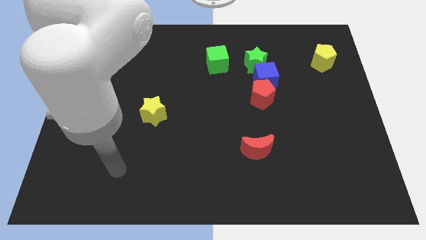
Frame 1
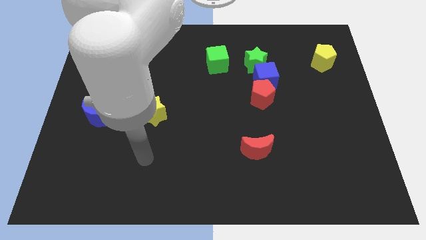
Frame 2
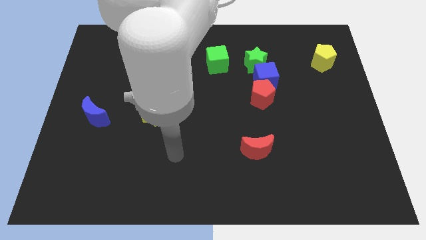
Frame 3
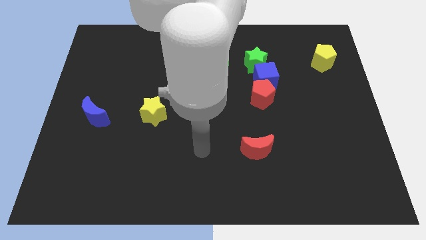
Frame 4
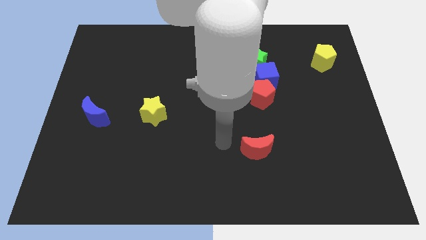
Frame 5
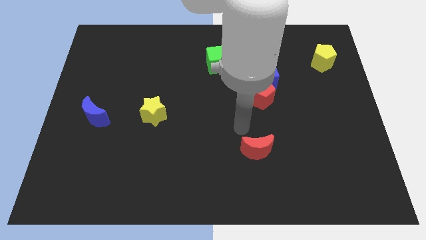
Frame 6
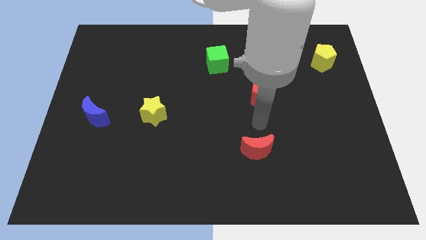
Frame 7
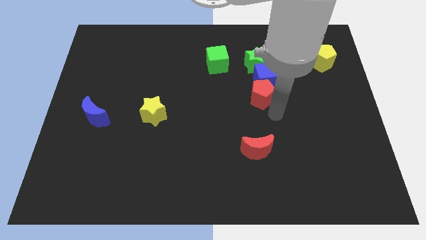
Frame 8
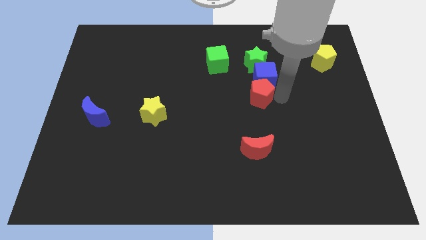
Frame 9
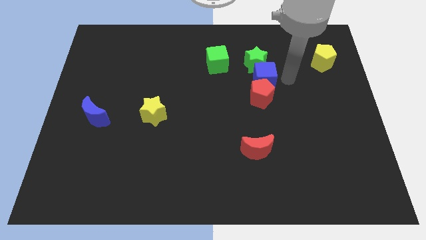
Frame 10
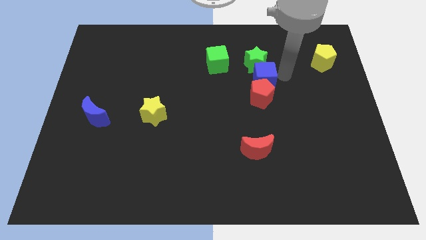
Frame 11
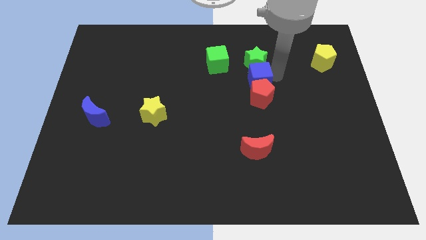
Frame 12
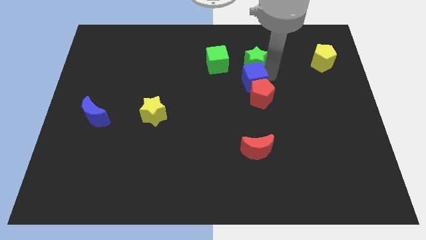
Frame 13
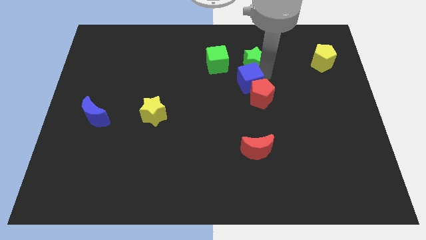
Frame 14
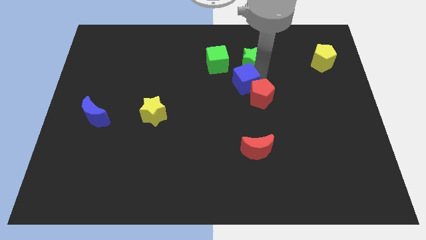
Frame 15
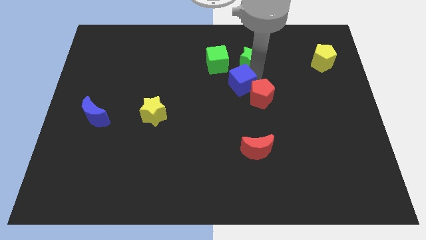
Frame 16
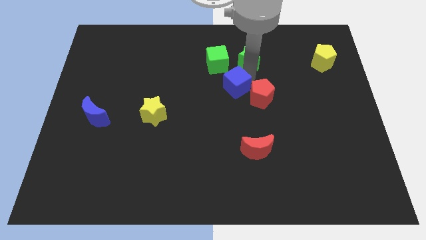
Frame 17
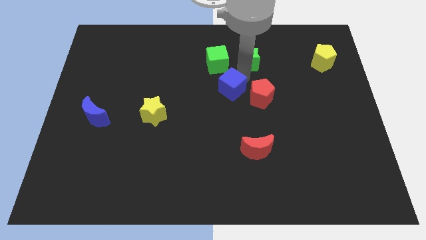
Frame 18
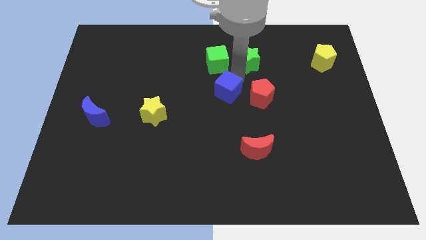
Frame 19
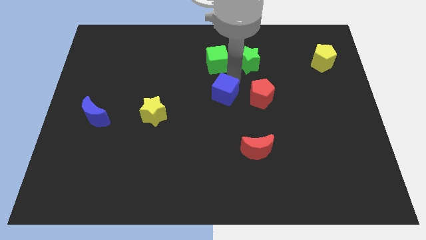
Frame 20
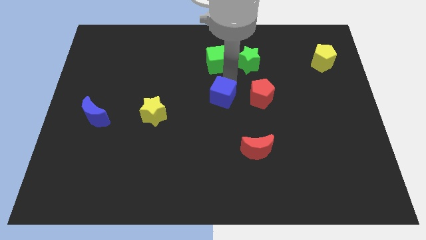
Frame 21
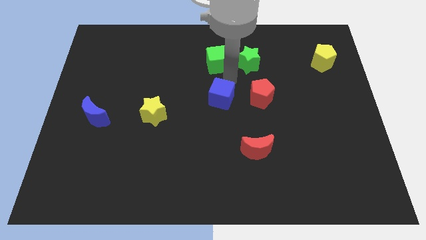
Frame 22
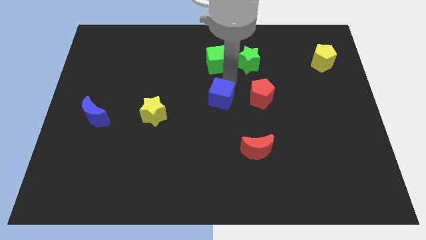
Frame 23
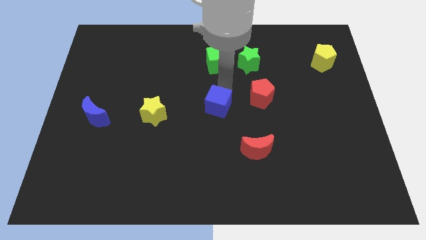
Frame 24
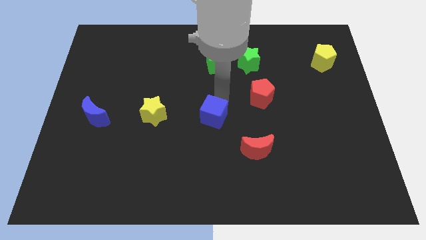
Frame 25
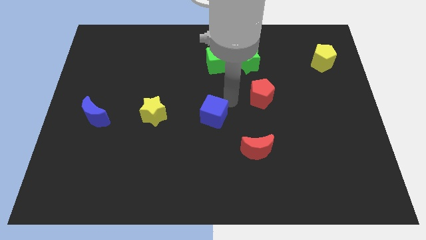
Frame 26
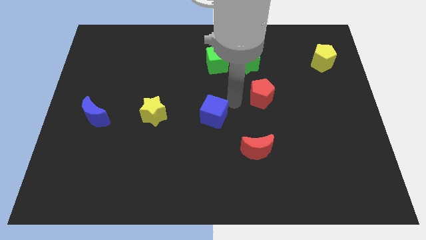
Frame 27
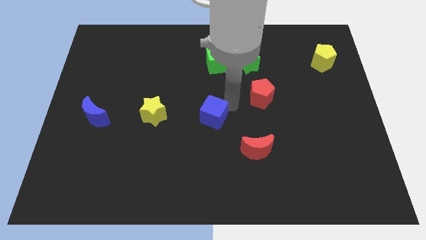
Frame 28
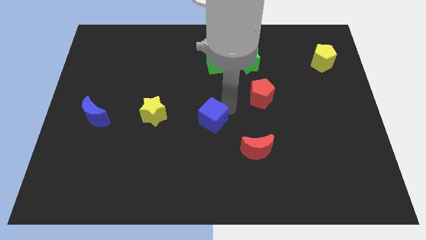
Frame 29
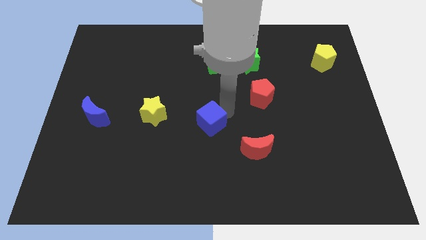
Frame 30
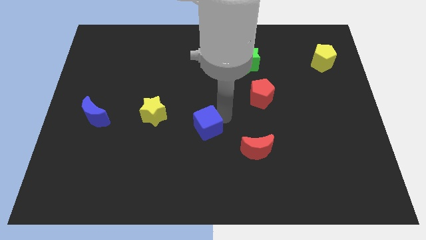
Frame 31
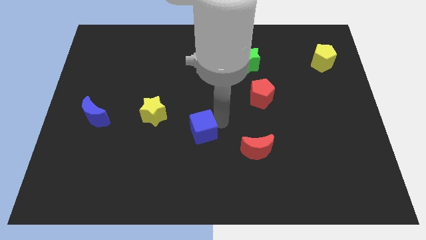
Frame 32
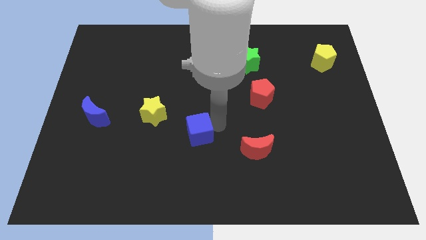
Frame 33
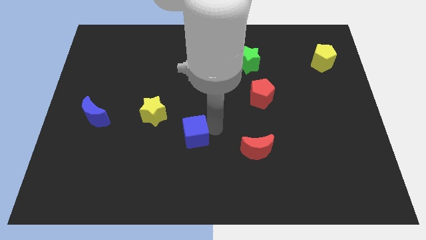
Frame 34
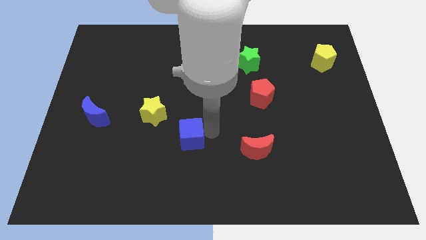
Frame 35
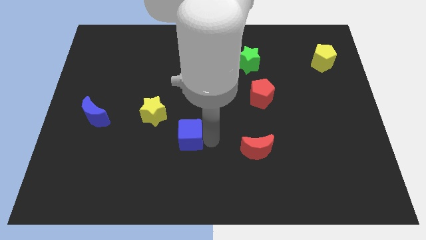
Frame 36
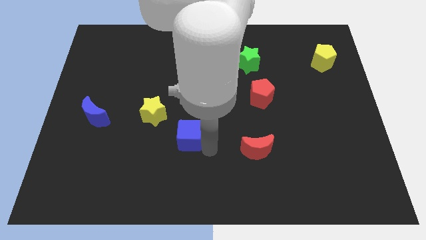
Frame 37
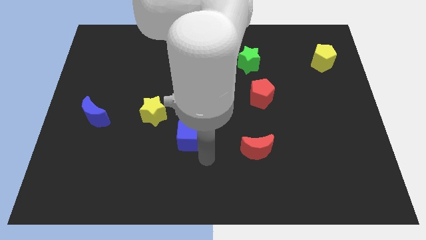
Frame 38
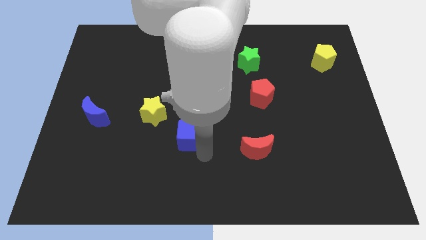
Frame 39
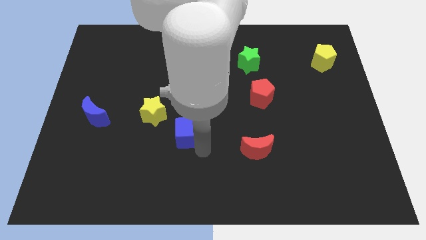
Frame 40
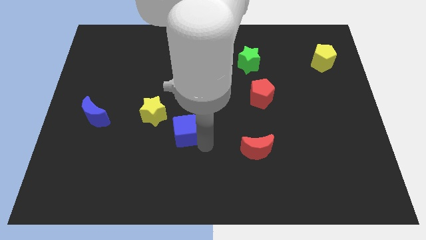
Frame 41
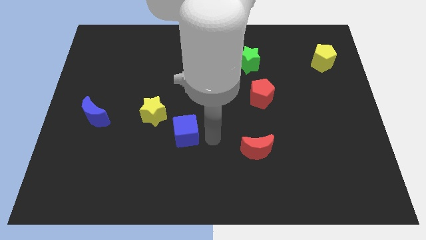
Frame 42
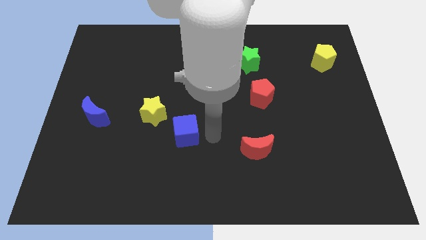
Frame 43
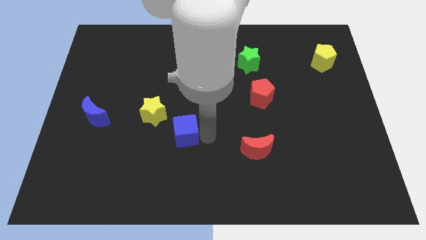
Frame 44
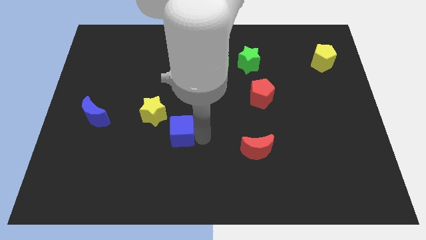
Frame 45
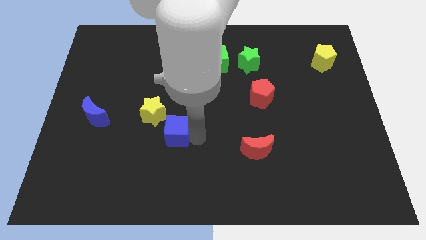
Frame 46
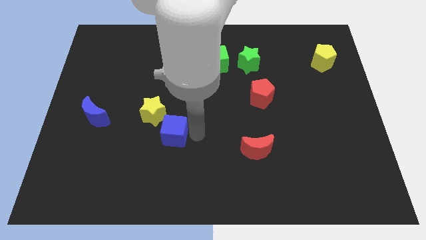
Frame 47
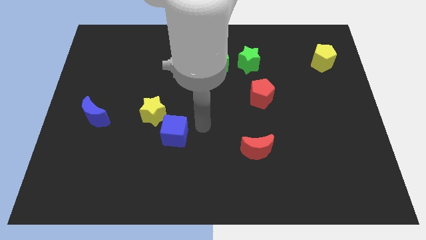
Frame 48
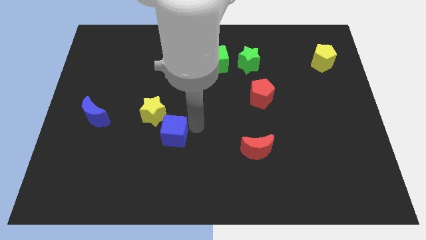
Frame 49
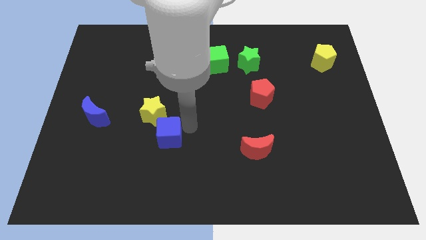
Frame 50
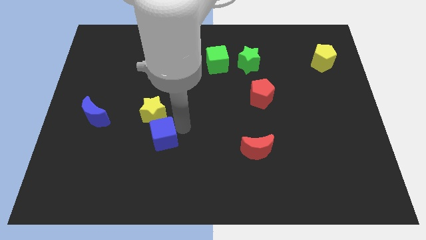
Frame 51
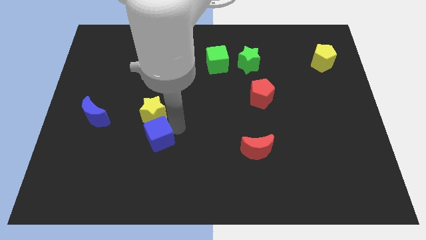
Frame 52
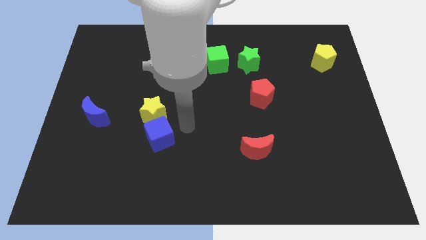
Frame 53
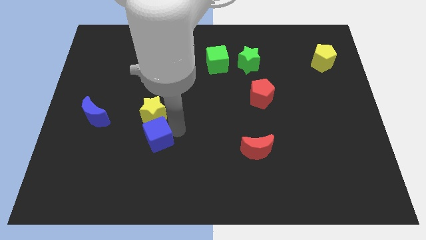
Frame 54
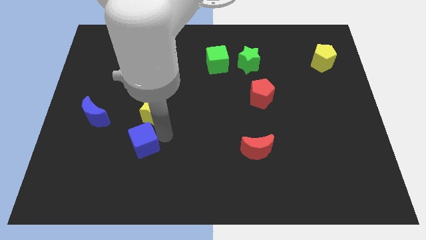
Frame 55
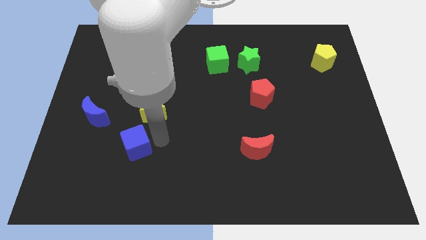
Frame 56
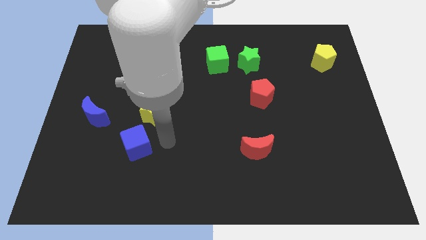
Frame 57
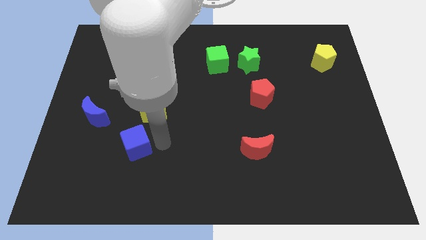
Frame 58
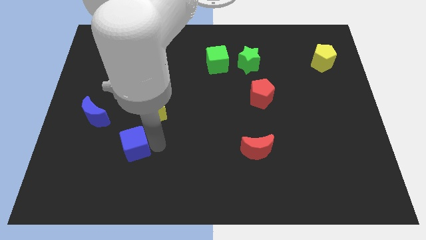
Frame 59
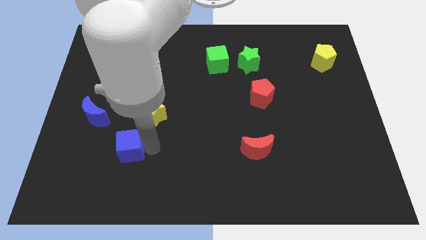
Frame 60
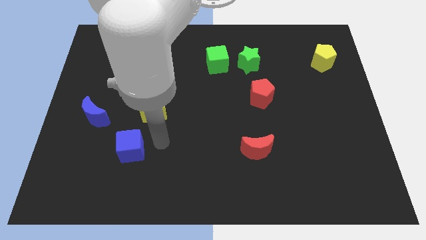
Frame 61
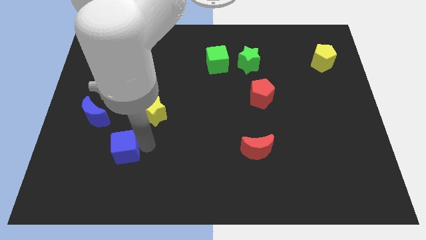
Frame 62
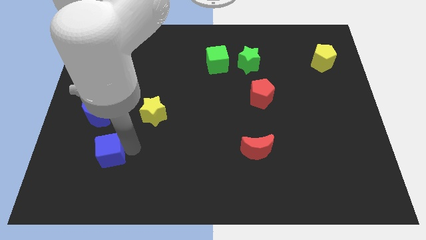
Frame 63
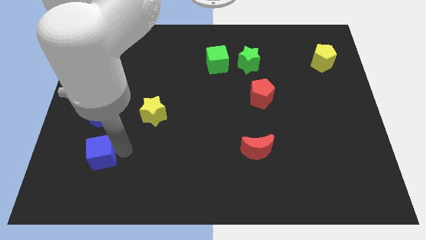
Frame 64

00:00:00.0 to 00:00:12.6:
slide the blue cube to the bottom of the blue moon

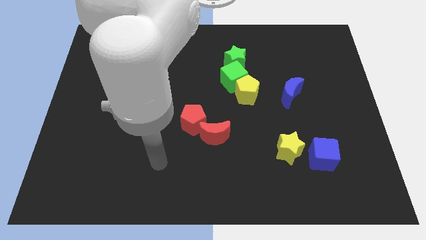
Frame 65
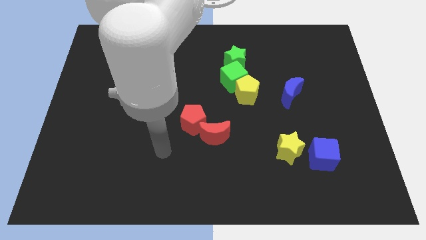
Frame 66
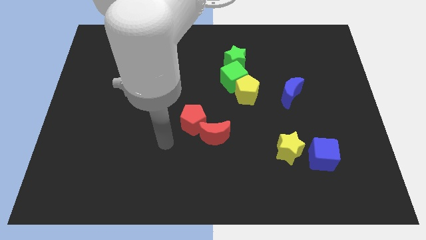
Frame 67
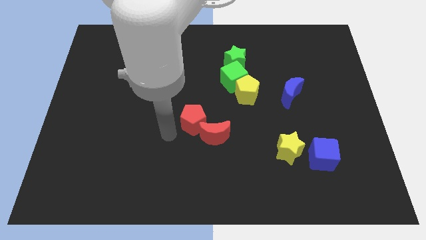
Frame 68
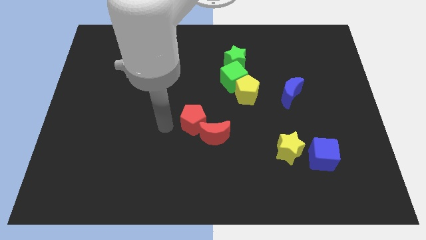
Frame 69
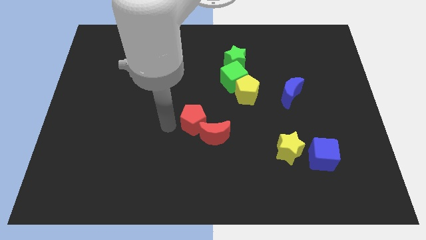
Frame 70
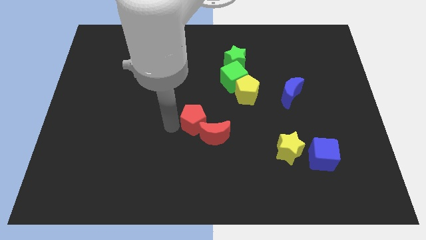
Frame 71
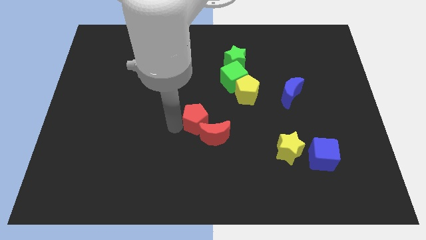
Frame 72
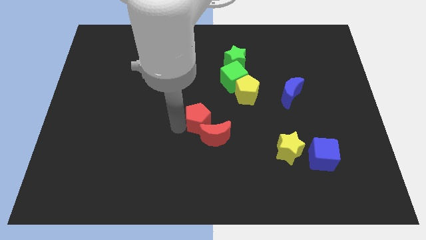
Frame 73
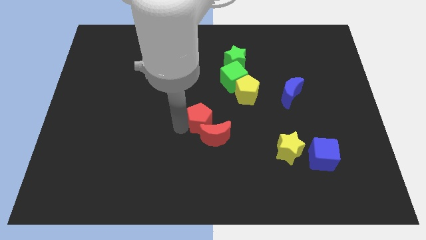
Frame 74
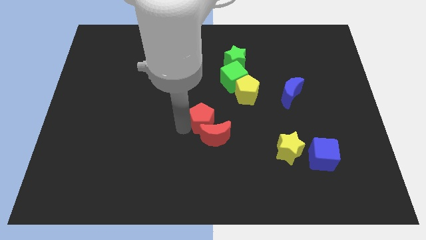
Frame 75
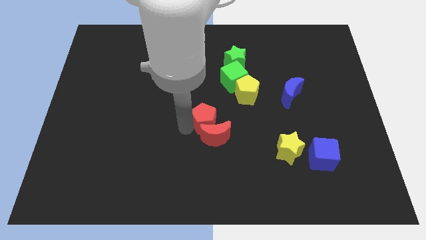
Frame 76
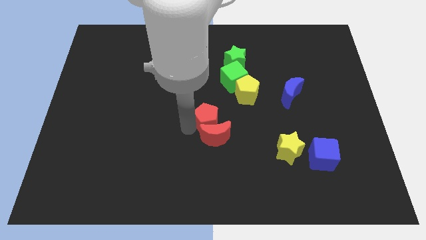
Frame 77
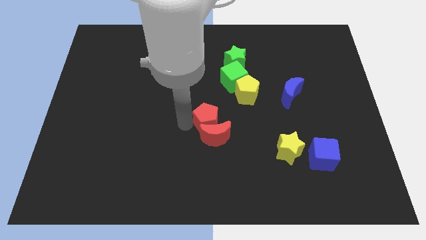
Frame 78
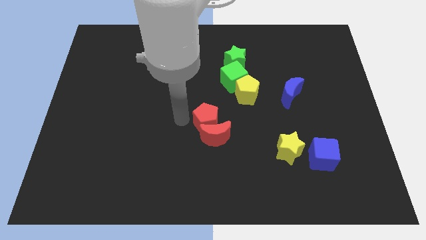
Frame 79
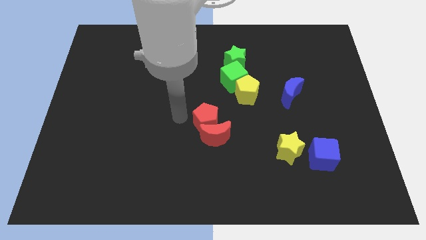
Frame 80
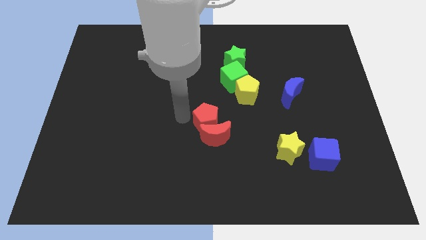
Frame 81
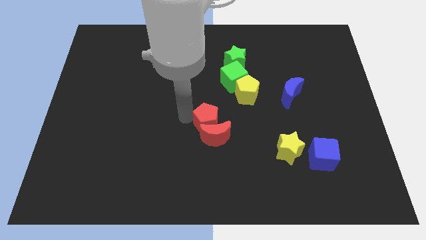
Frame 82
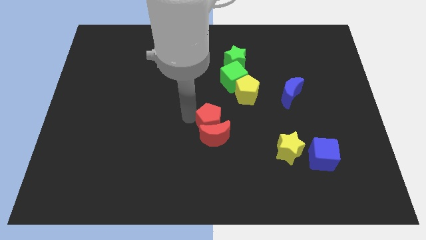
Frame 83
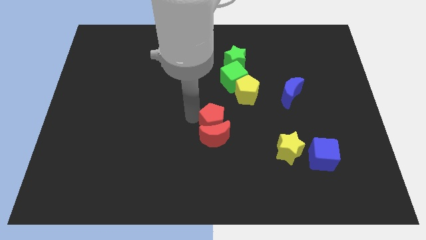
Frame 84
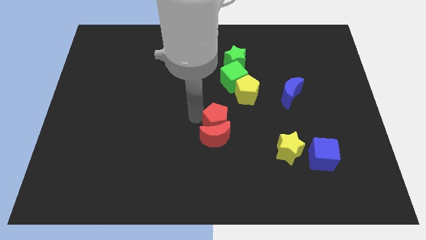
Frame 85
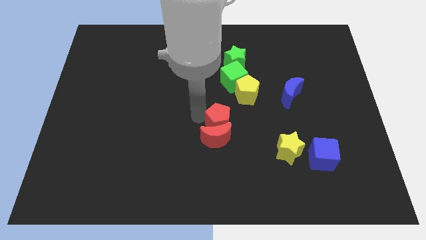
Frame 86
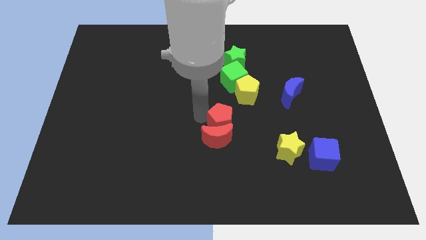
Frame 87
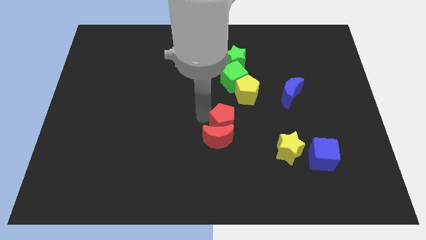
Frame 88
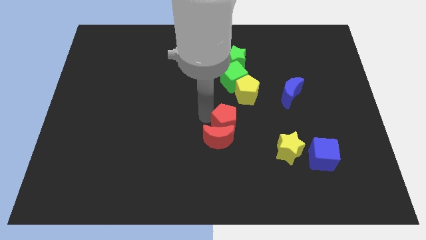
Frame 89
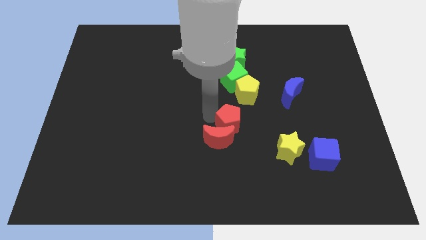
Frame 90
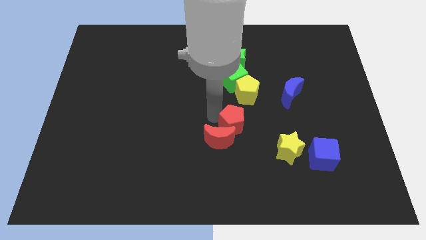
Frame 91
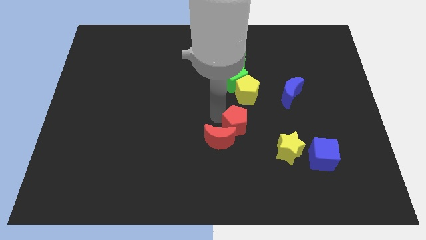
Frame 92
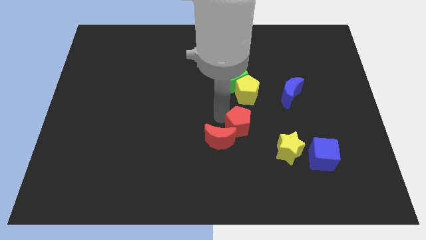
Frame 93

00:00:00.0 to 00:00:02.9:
slide the red pentagon to the top left side of the yellow star
